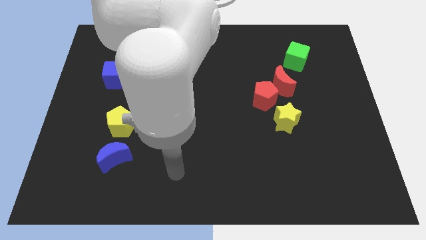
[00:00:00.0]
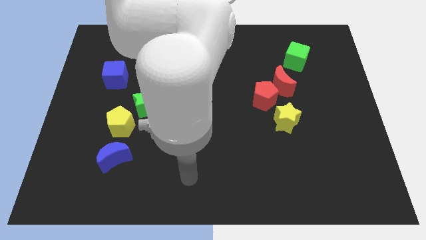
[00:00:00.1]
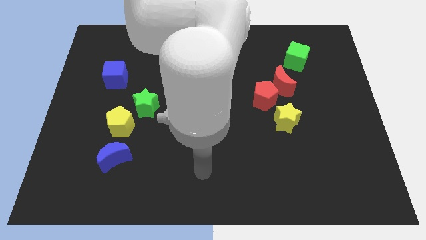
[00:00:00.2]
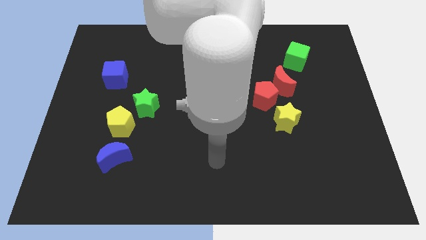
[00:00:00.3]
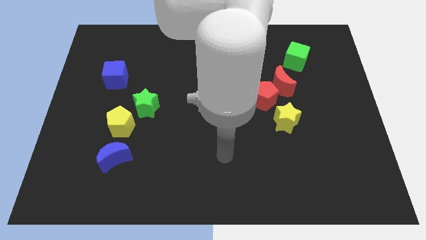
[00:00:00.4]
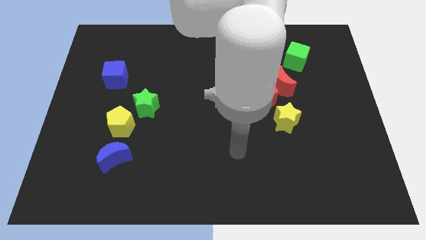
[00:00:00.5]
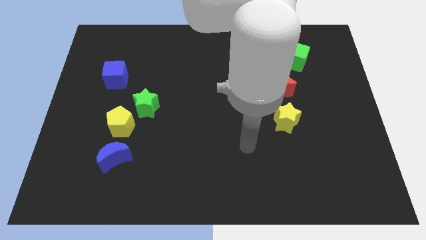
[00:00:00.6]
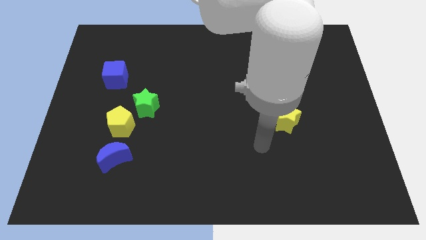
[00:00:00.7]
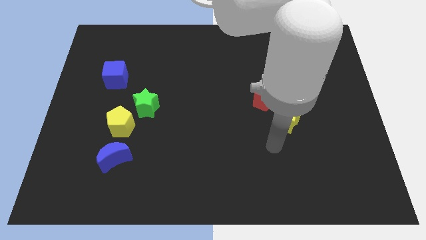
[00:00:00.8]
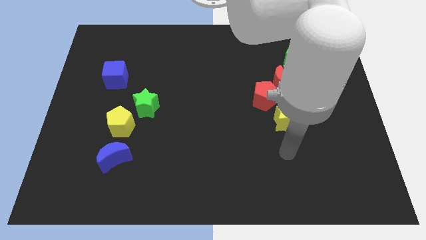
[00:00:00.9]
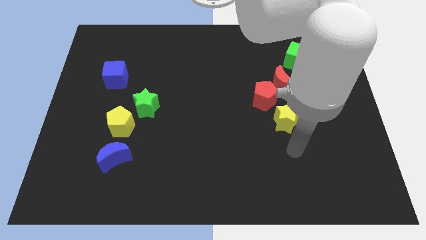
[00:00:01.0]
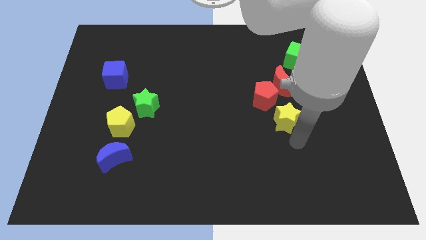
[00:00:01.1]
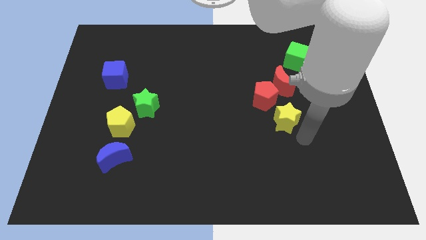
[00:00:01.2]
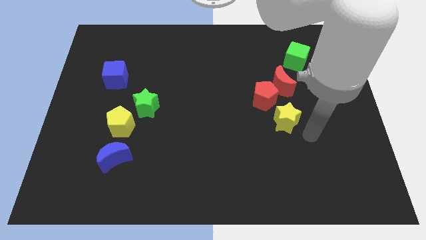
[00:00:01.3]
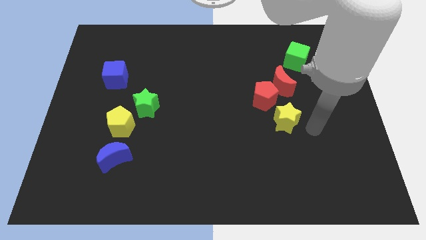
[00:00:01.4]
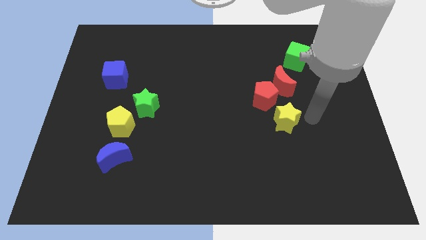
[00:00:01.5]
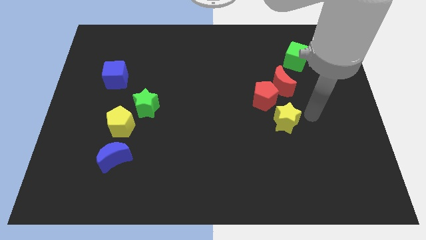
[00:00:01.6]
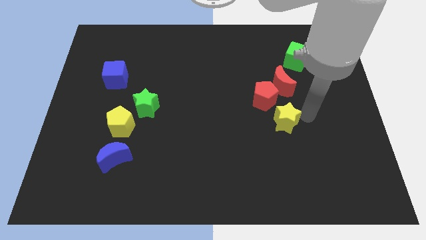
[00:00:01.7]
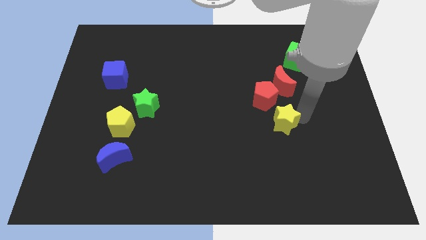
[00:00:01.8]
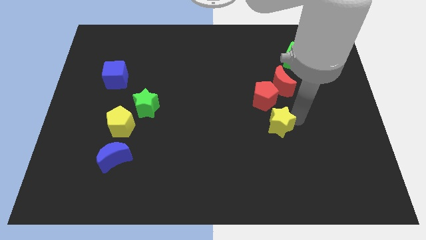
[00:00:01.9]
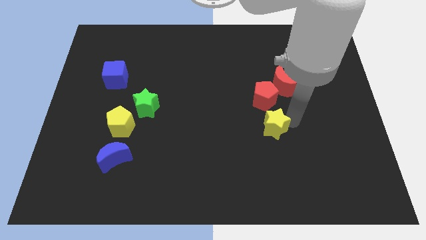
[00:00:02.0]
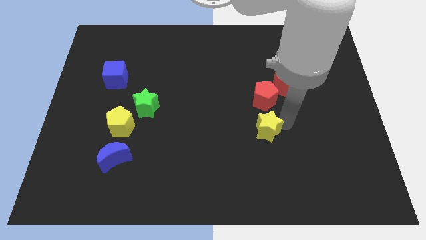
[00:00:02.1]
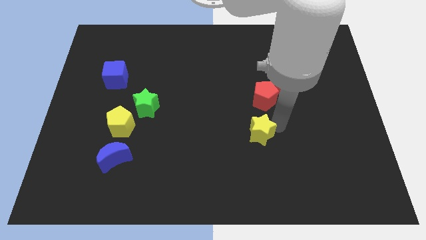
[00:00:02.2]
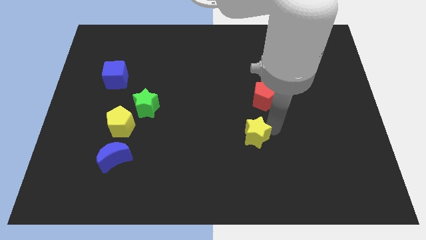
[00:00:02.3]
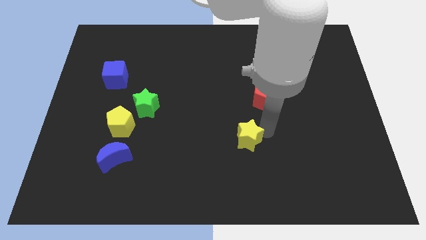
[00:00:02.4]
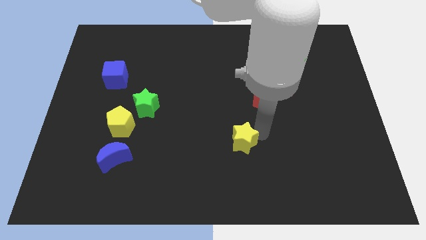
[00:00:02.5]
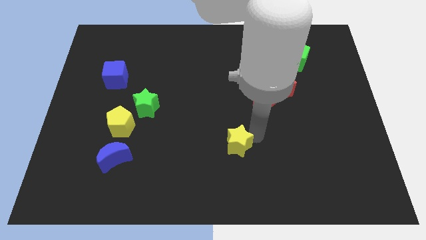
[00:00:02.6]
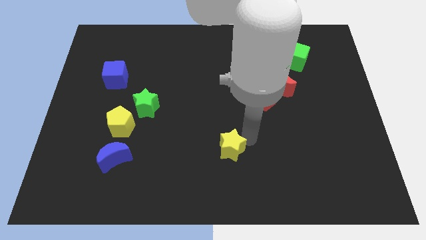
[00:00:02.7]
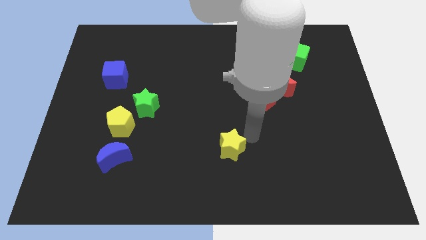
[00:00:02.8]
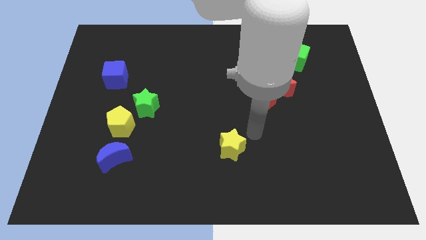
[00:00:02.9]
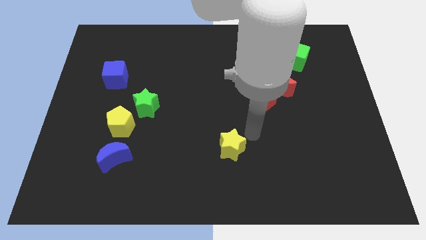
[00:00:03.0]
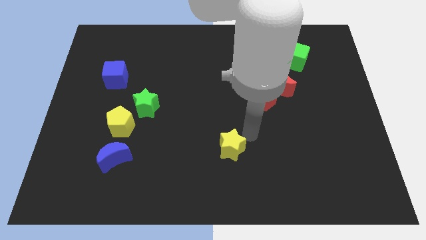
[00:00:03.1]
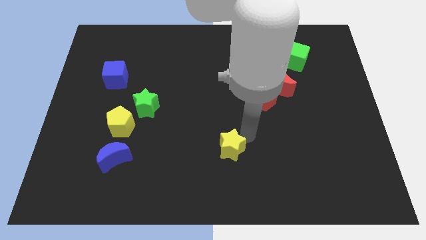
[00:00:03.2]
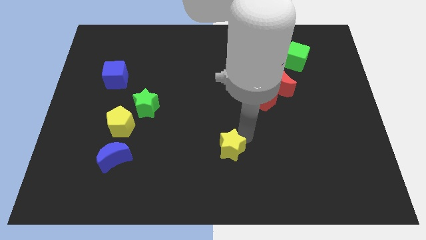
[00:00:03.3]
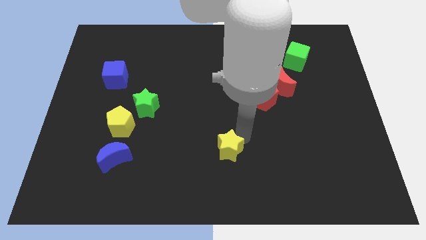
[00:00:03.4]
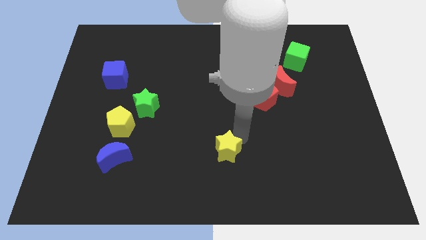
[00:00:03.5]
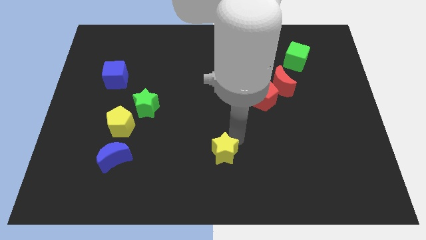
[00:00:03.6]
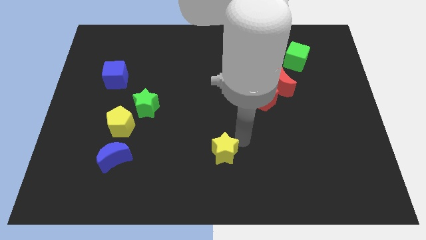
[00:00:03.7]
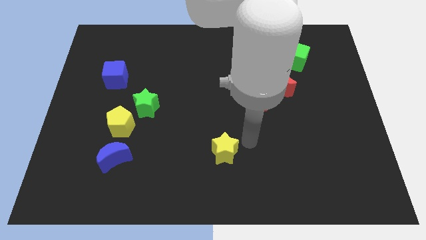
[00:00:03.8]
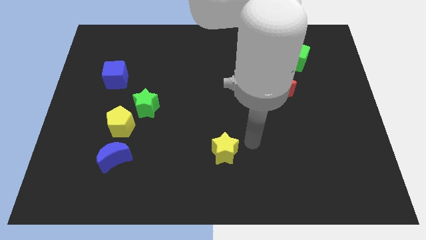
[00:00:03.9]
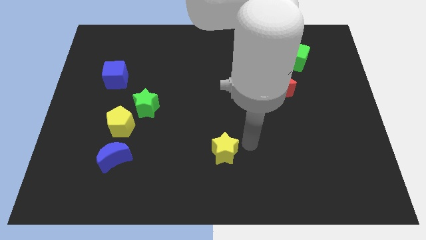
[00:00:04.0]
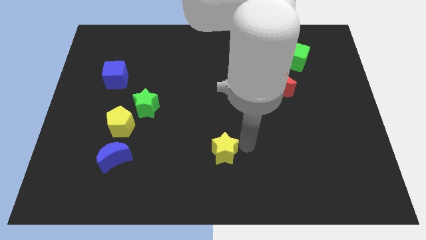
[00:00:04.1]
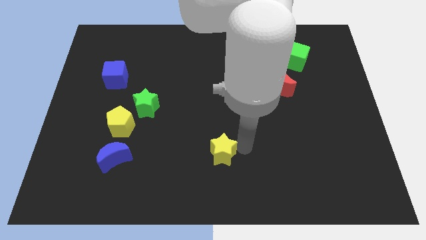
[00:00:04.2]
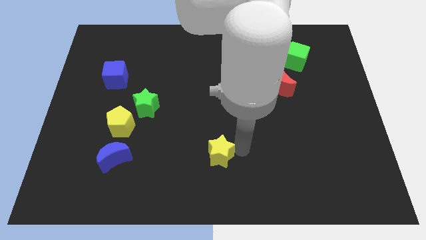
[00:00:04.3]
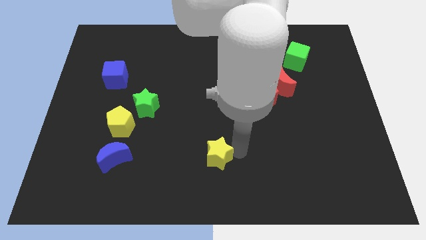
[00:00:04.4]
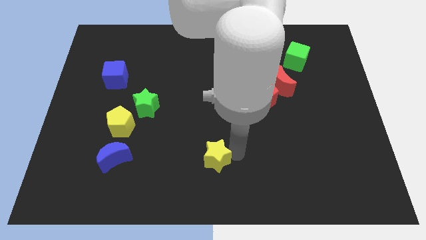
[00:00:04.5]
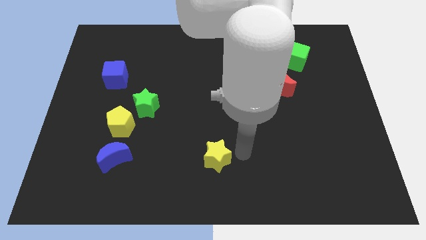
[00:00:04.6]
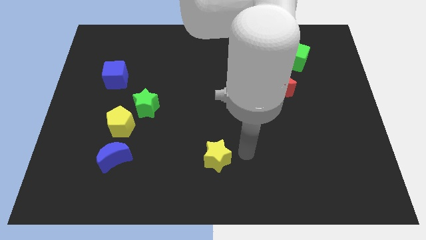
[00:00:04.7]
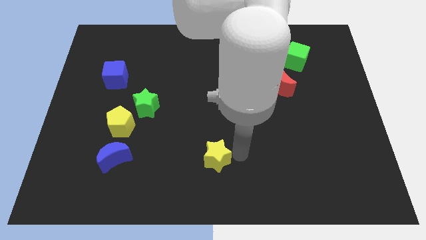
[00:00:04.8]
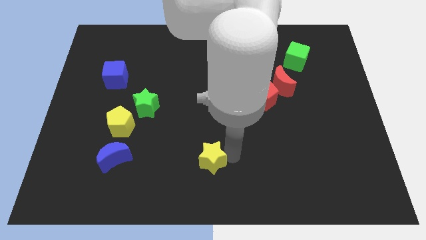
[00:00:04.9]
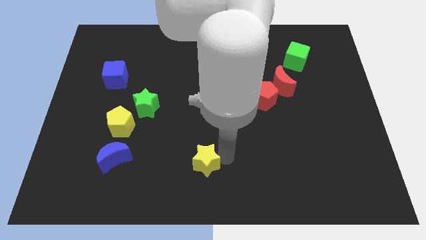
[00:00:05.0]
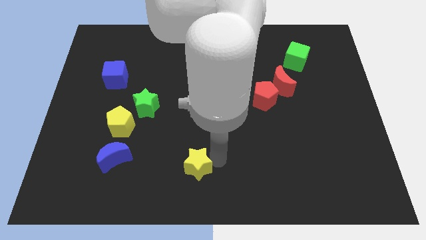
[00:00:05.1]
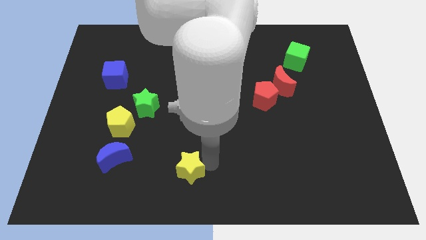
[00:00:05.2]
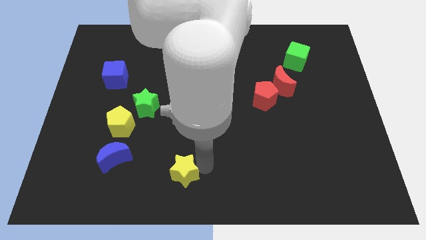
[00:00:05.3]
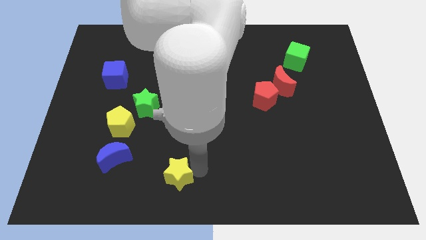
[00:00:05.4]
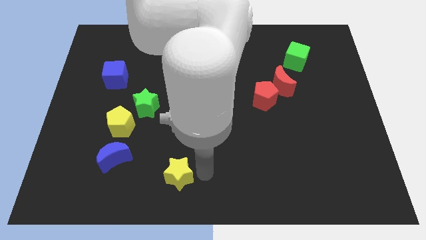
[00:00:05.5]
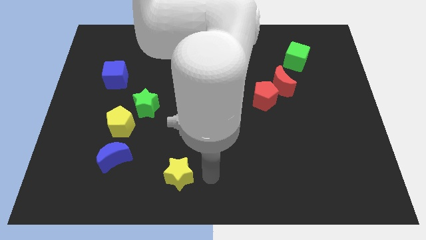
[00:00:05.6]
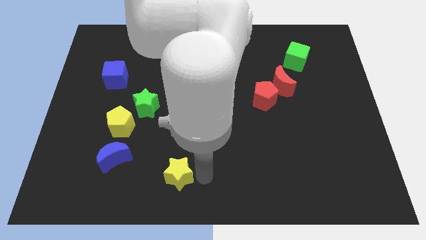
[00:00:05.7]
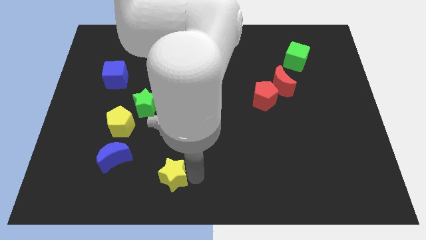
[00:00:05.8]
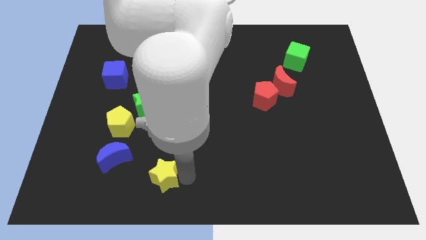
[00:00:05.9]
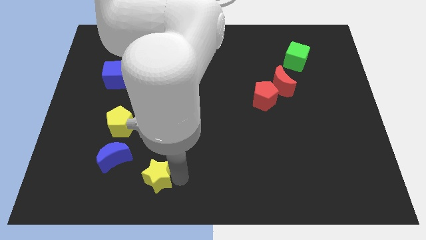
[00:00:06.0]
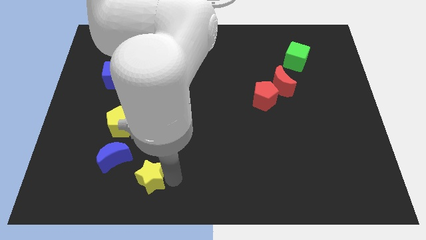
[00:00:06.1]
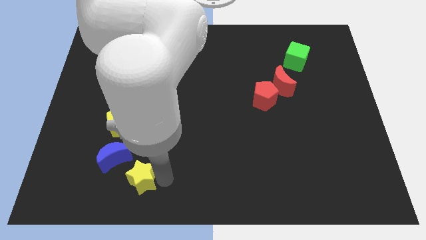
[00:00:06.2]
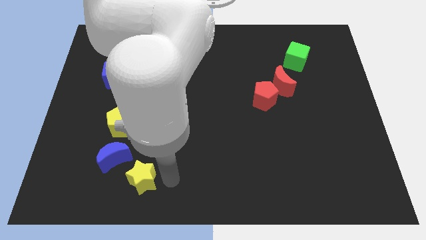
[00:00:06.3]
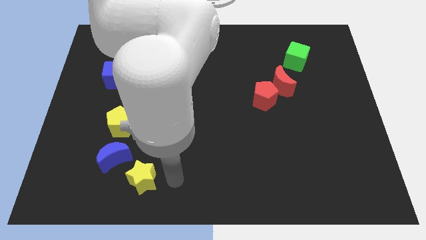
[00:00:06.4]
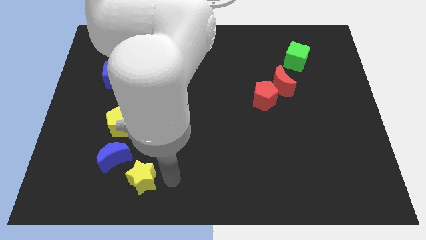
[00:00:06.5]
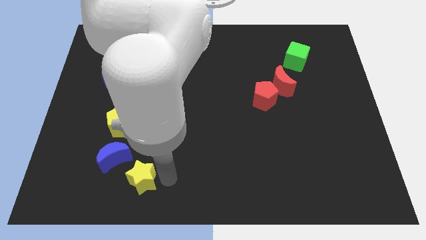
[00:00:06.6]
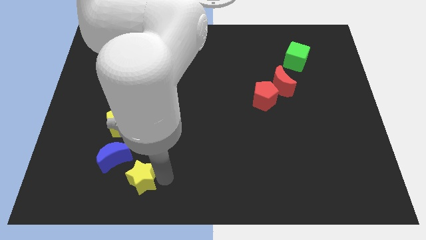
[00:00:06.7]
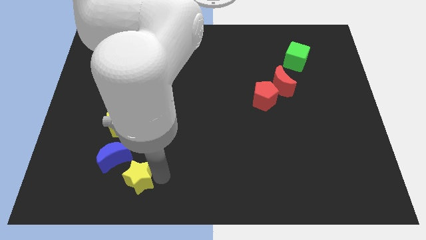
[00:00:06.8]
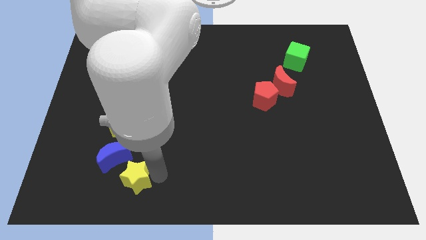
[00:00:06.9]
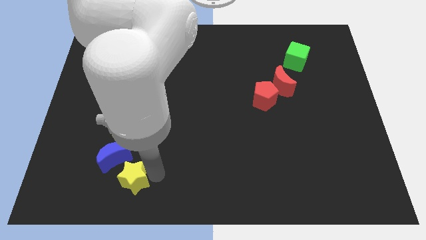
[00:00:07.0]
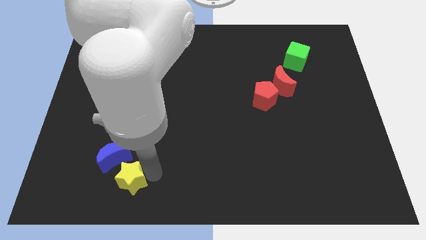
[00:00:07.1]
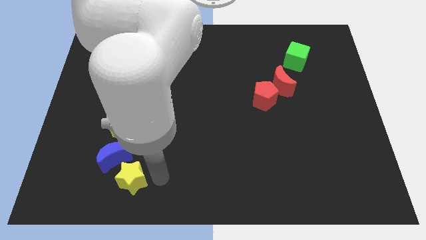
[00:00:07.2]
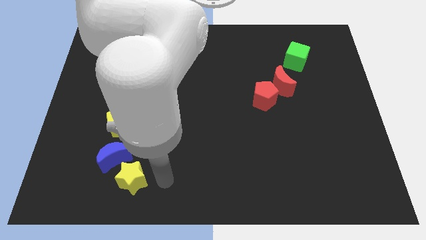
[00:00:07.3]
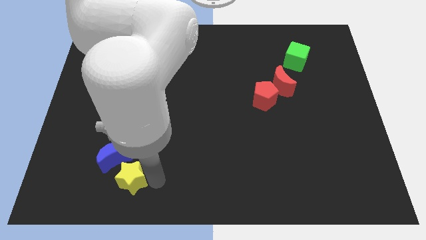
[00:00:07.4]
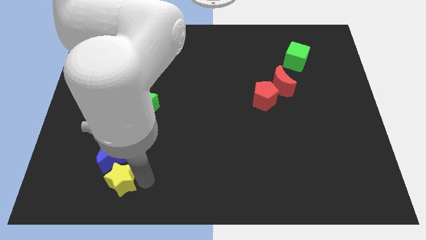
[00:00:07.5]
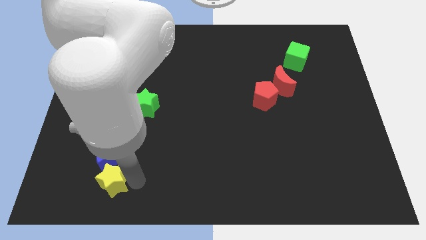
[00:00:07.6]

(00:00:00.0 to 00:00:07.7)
put the yellow star diagonally down and to the left of the blue moon
